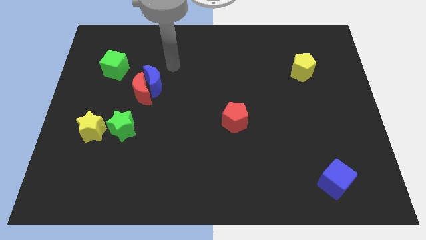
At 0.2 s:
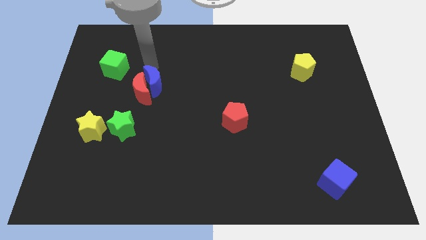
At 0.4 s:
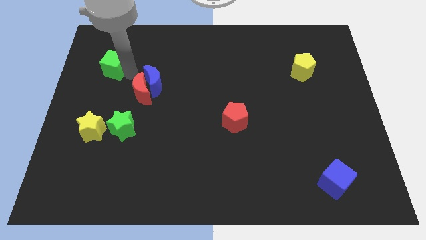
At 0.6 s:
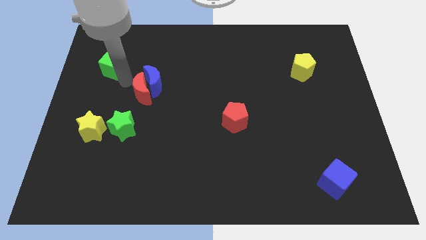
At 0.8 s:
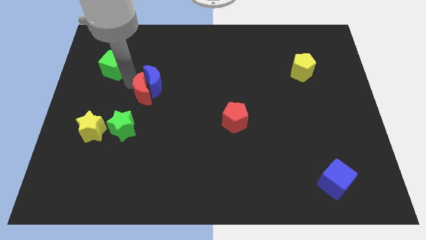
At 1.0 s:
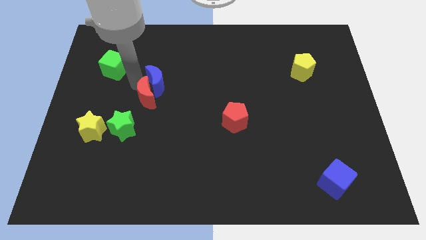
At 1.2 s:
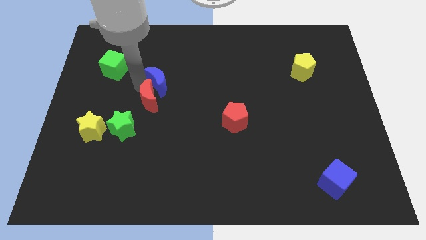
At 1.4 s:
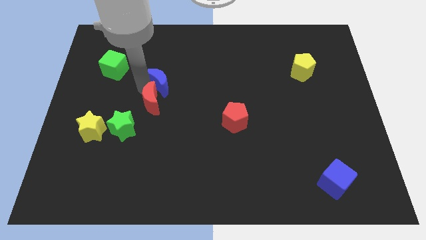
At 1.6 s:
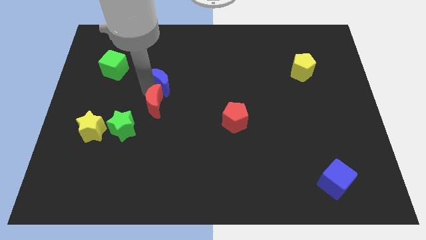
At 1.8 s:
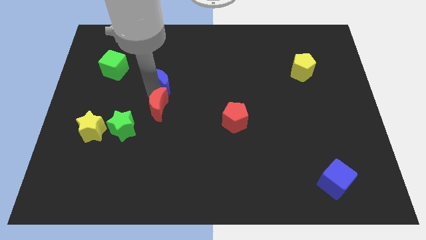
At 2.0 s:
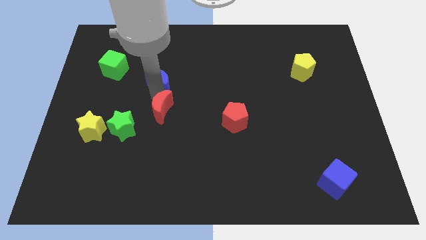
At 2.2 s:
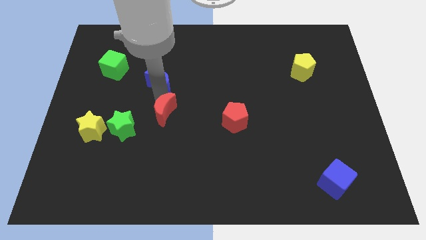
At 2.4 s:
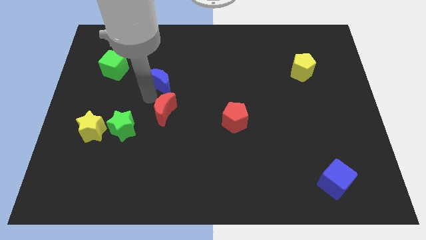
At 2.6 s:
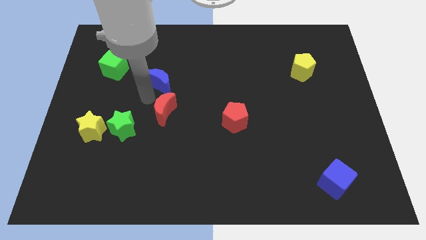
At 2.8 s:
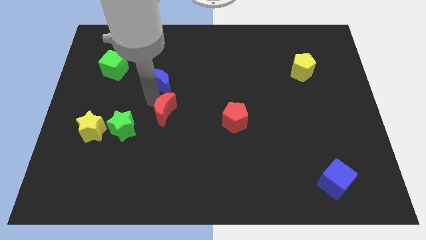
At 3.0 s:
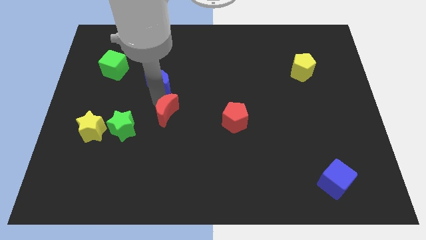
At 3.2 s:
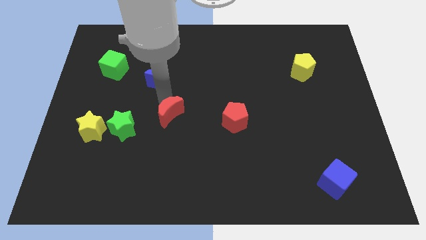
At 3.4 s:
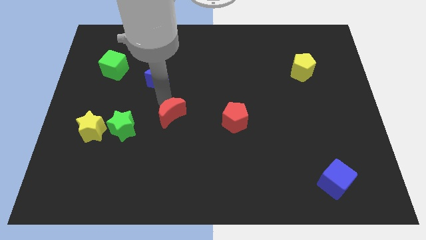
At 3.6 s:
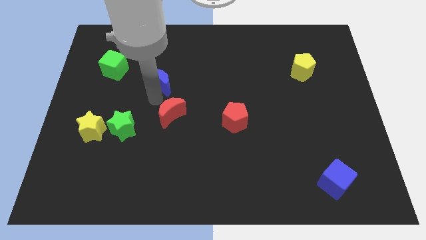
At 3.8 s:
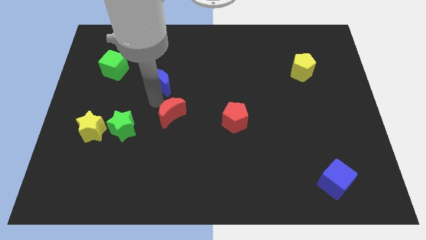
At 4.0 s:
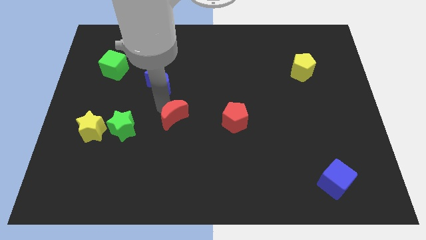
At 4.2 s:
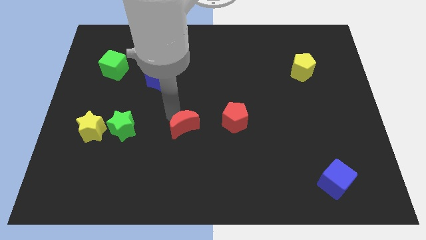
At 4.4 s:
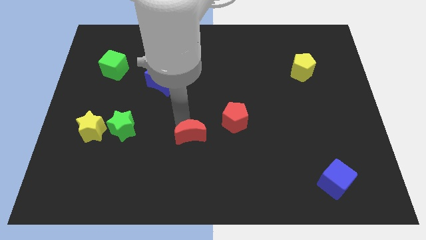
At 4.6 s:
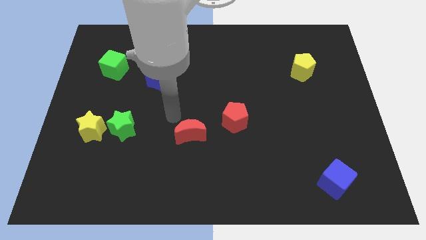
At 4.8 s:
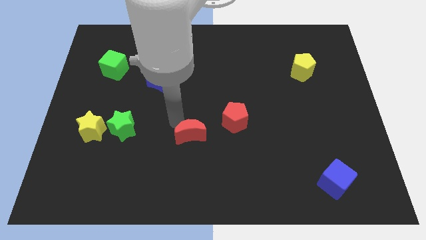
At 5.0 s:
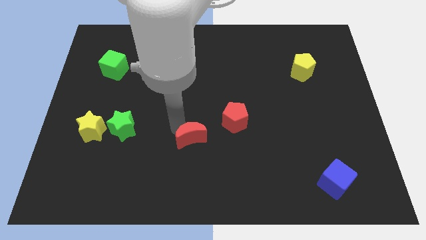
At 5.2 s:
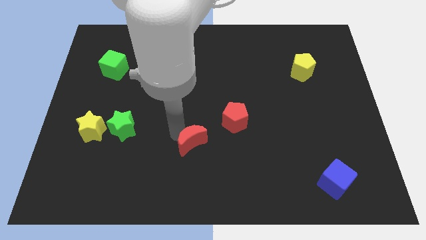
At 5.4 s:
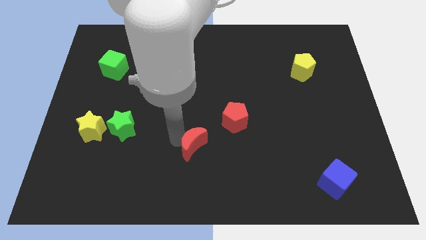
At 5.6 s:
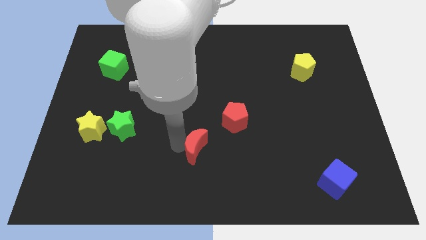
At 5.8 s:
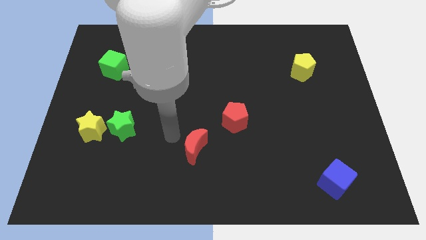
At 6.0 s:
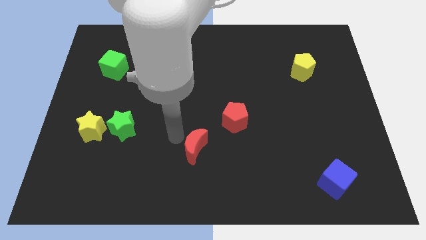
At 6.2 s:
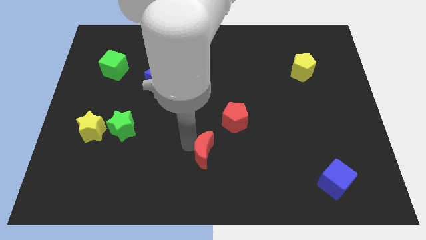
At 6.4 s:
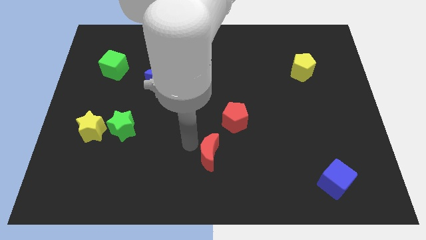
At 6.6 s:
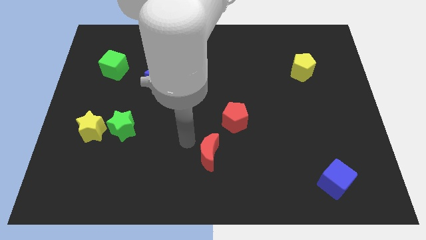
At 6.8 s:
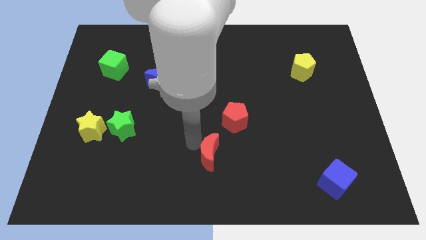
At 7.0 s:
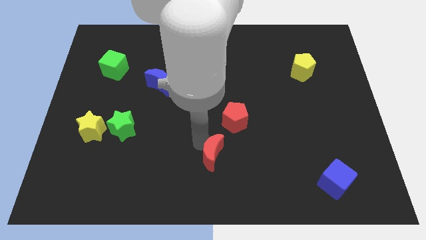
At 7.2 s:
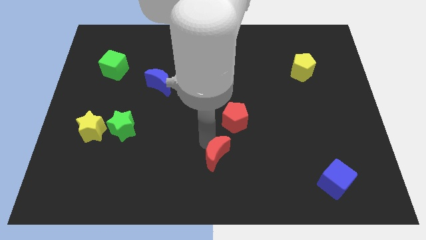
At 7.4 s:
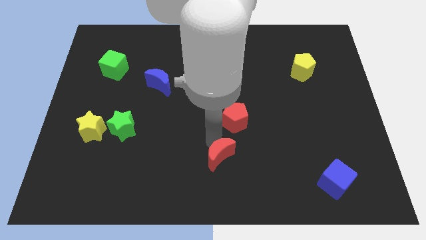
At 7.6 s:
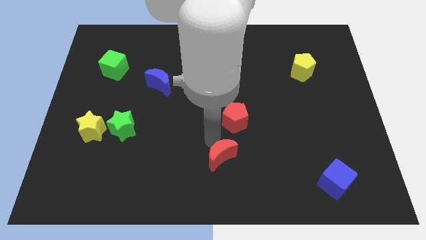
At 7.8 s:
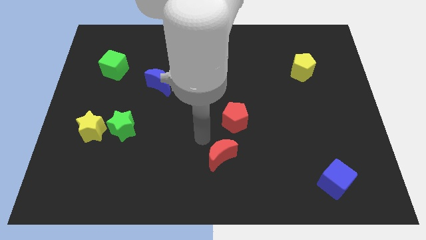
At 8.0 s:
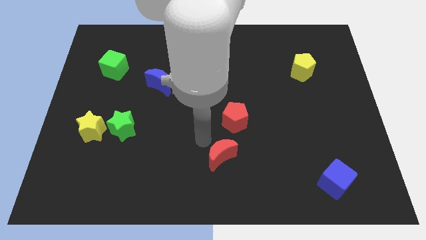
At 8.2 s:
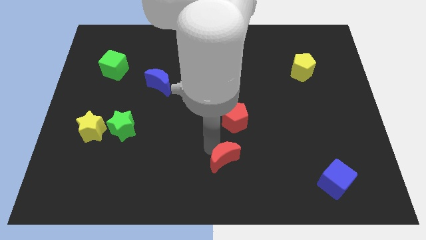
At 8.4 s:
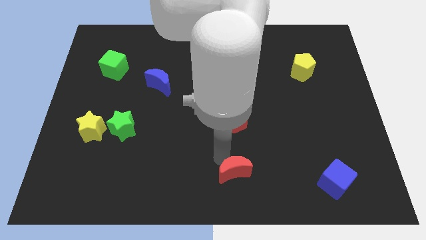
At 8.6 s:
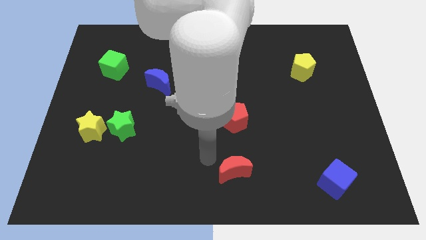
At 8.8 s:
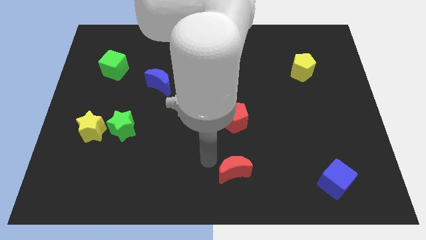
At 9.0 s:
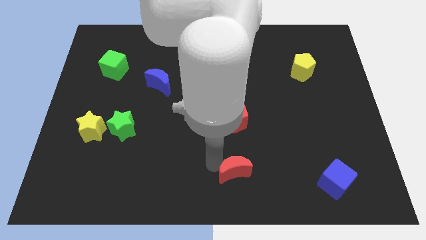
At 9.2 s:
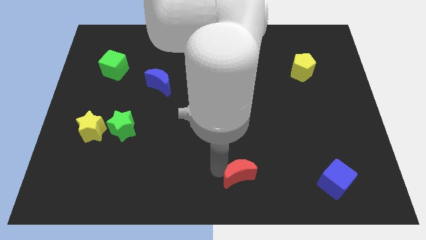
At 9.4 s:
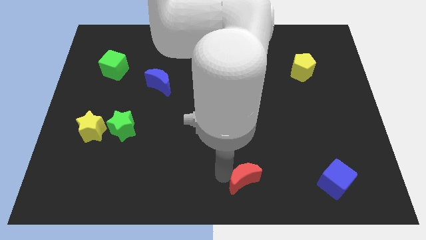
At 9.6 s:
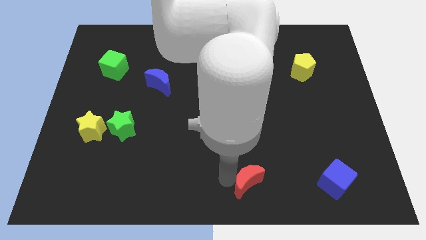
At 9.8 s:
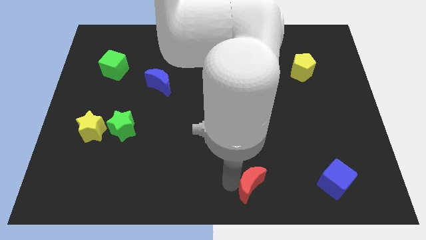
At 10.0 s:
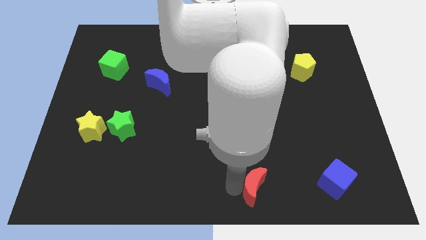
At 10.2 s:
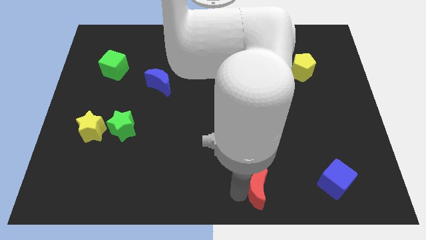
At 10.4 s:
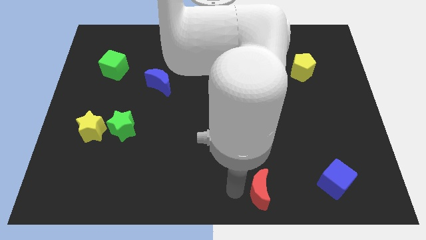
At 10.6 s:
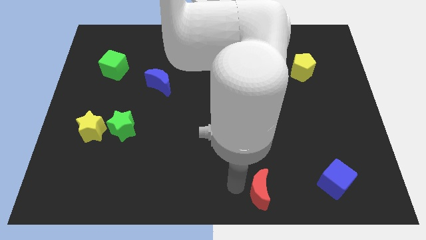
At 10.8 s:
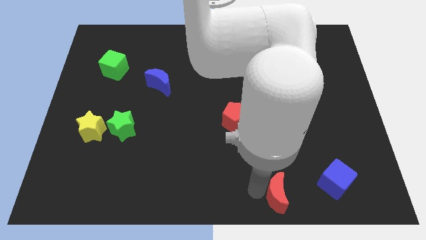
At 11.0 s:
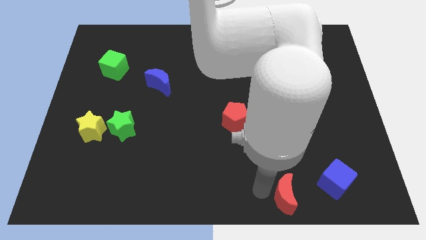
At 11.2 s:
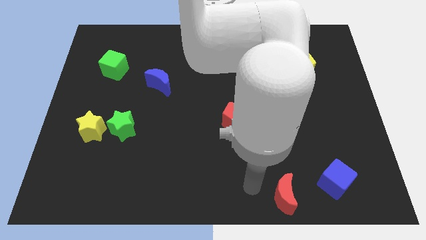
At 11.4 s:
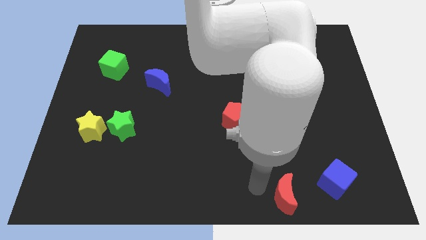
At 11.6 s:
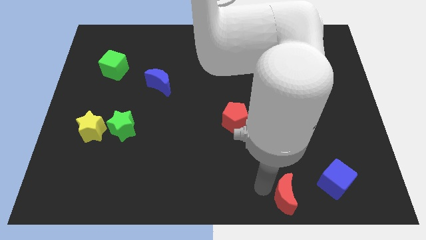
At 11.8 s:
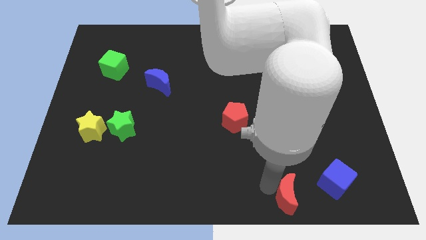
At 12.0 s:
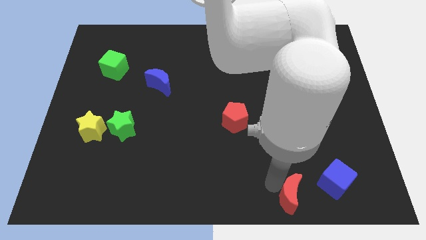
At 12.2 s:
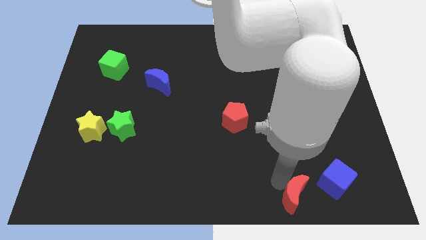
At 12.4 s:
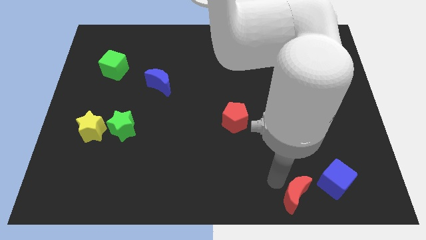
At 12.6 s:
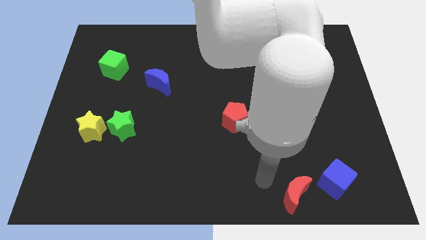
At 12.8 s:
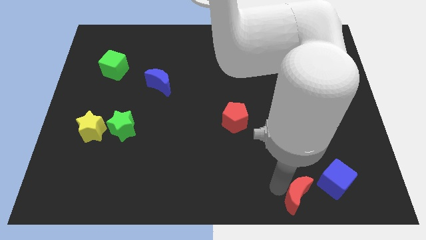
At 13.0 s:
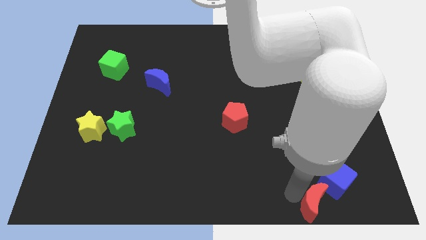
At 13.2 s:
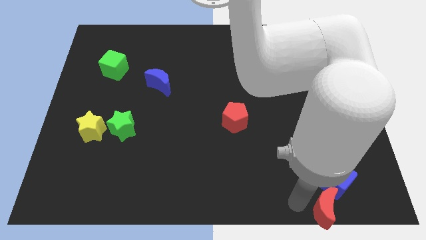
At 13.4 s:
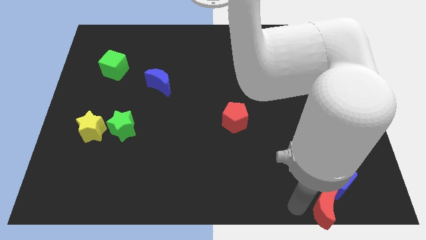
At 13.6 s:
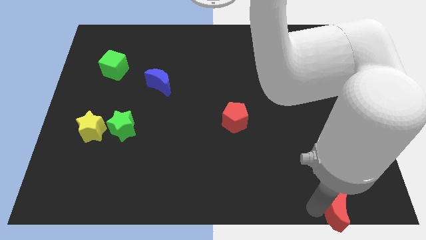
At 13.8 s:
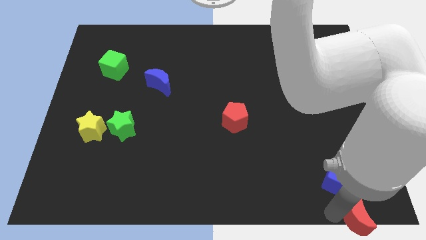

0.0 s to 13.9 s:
move the red moon to the bottom right
